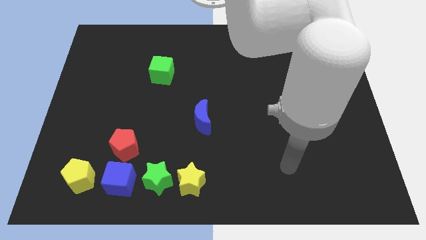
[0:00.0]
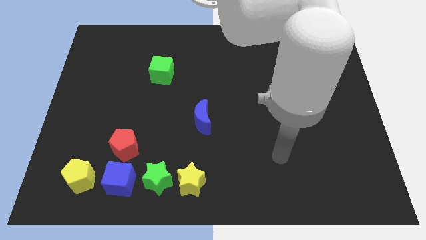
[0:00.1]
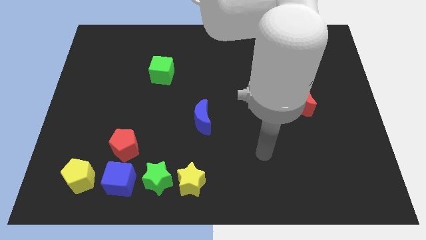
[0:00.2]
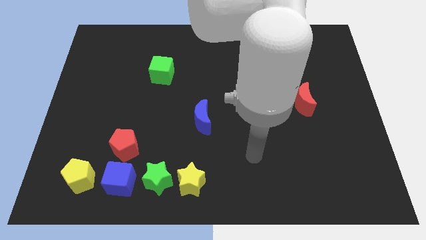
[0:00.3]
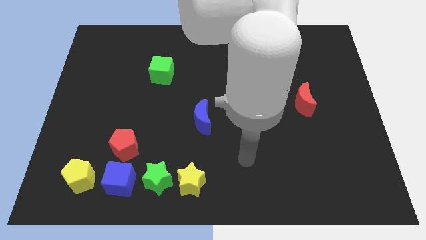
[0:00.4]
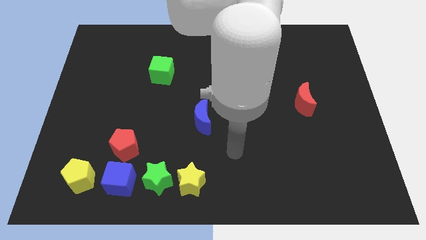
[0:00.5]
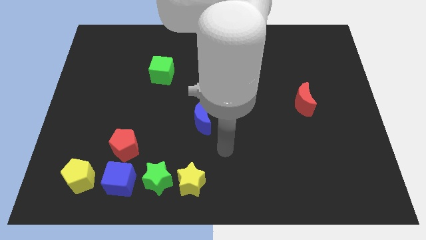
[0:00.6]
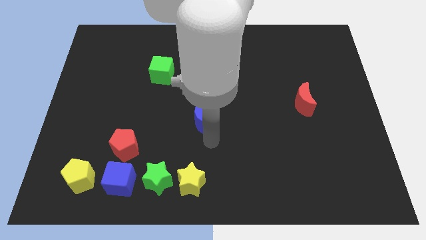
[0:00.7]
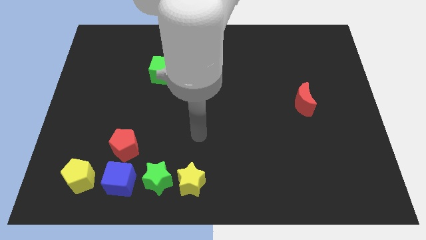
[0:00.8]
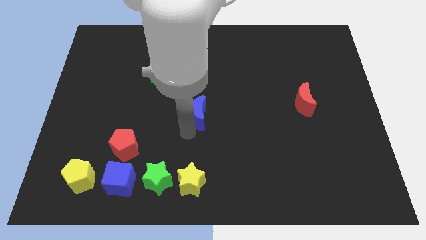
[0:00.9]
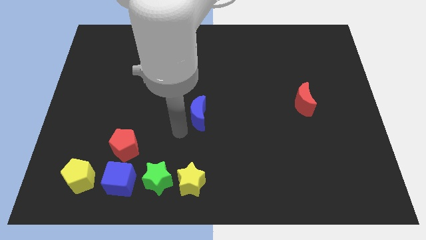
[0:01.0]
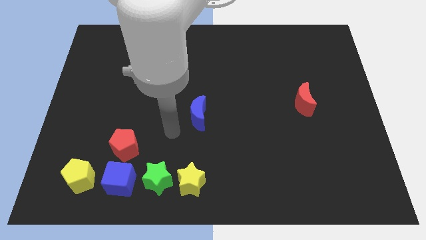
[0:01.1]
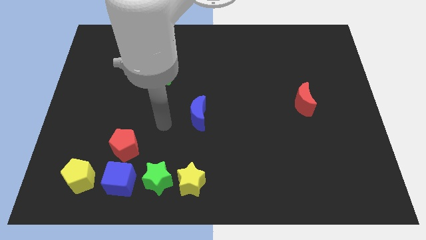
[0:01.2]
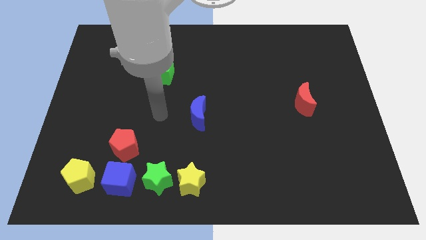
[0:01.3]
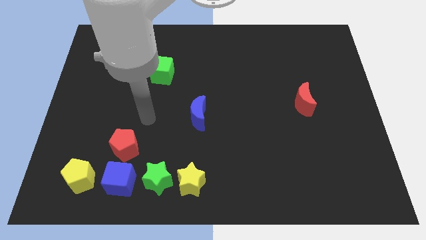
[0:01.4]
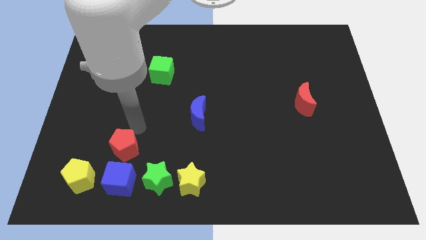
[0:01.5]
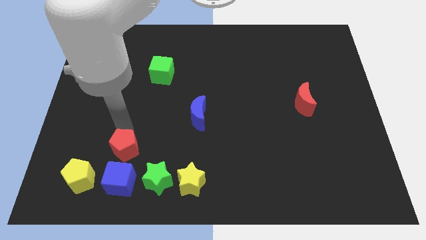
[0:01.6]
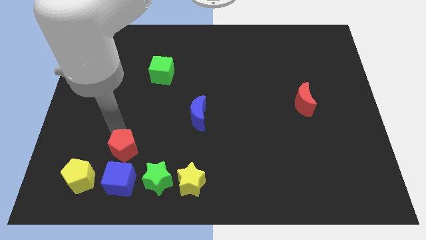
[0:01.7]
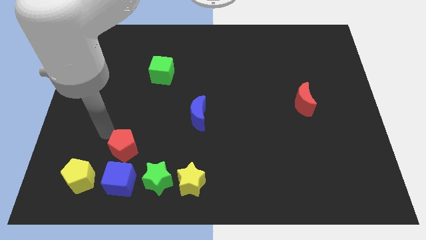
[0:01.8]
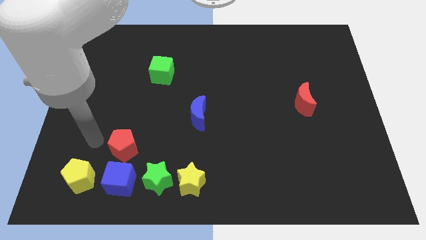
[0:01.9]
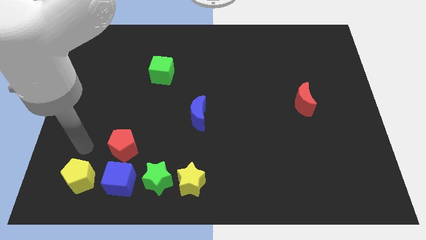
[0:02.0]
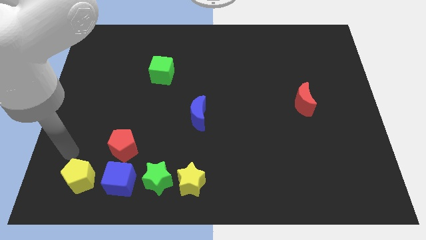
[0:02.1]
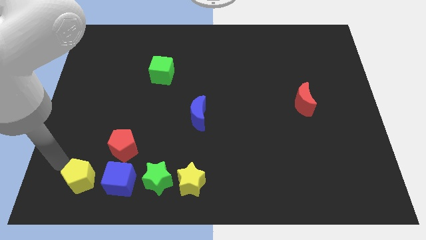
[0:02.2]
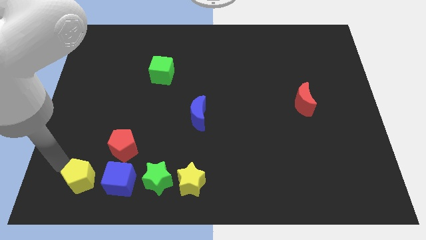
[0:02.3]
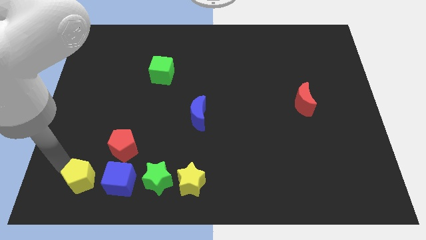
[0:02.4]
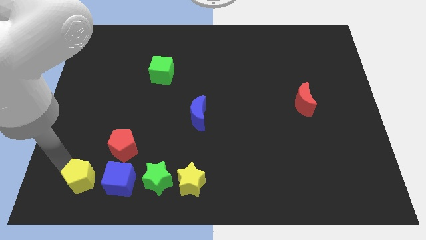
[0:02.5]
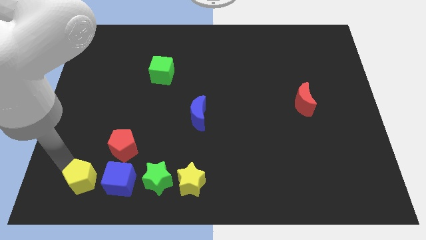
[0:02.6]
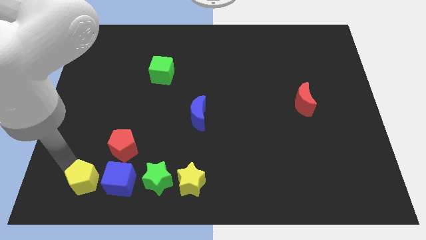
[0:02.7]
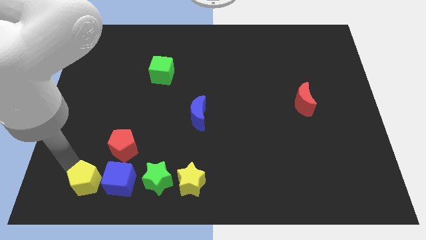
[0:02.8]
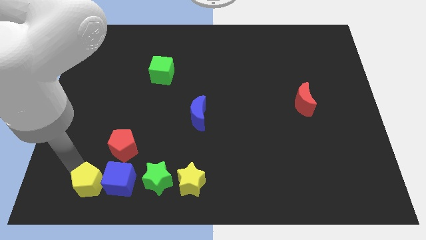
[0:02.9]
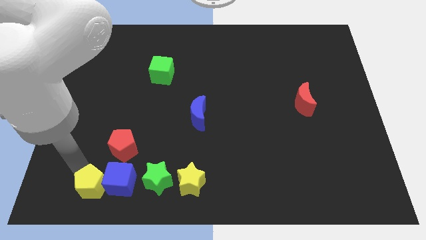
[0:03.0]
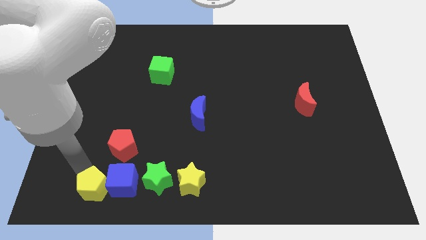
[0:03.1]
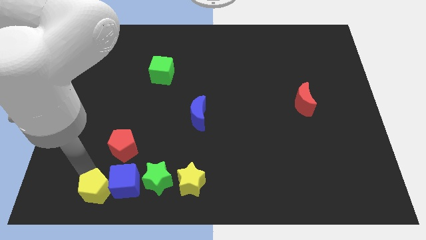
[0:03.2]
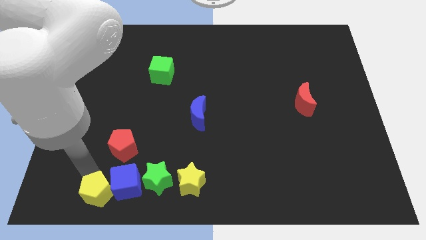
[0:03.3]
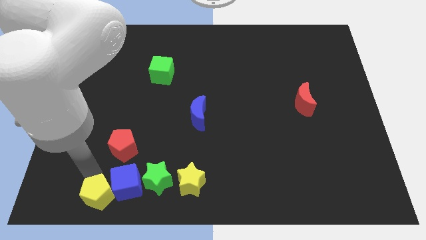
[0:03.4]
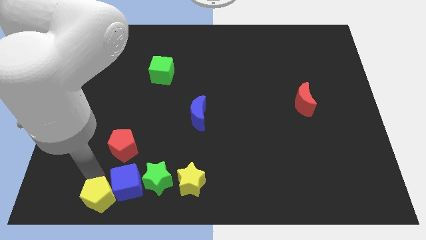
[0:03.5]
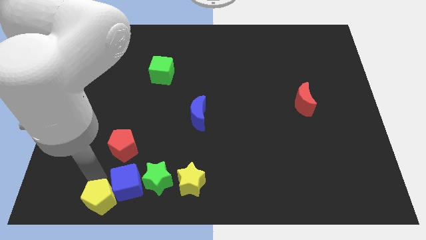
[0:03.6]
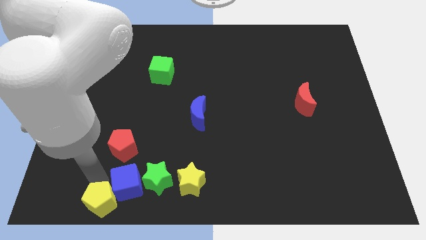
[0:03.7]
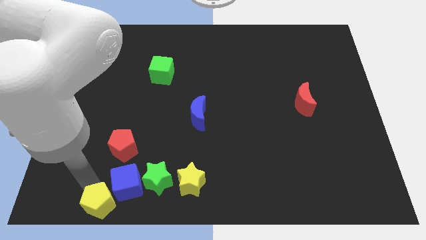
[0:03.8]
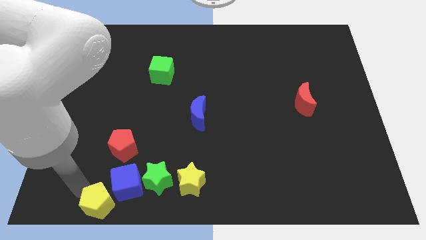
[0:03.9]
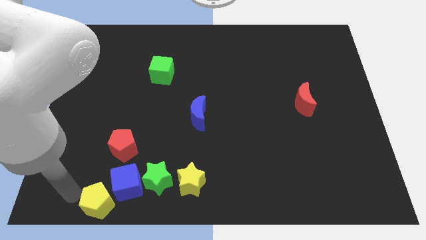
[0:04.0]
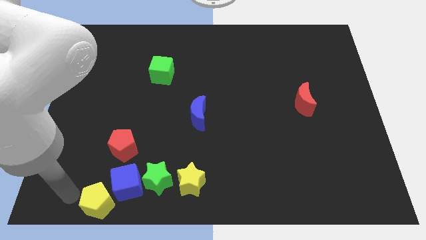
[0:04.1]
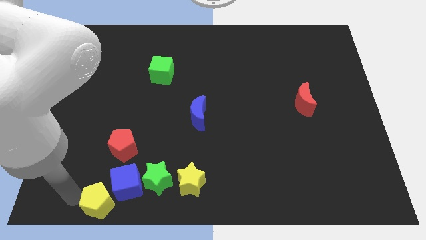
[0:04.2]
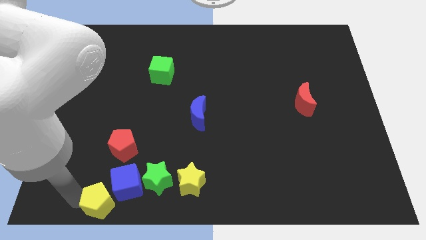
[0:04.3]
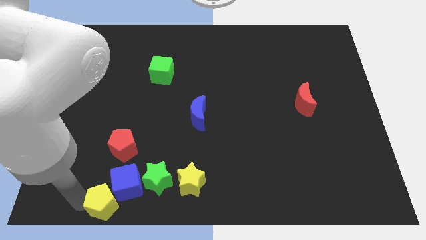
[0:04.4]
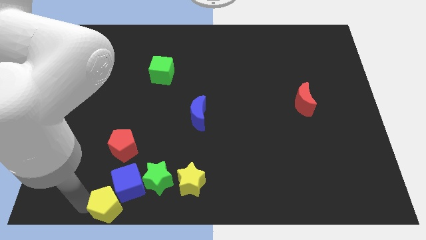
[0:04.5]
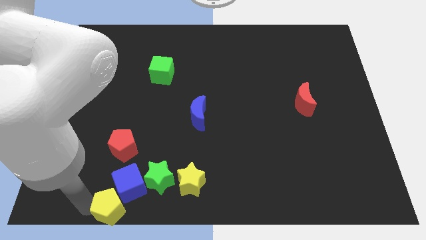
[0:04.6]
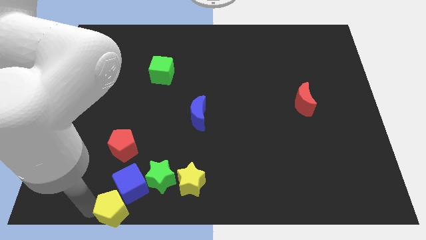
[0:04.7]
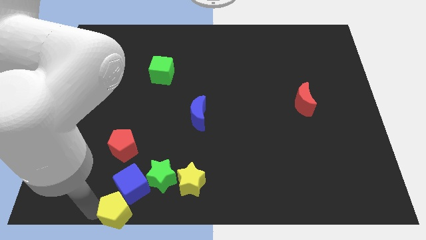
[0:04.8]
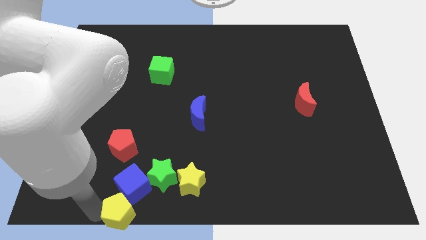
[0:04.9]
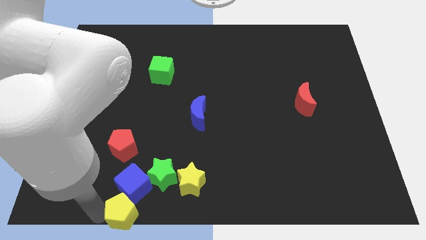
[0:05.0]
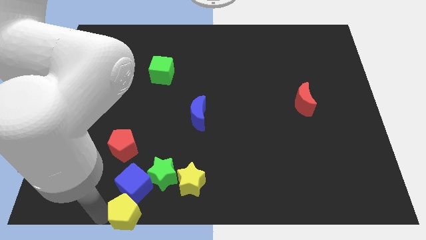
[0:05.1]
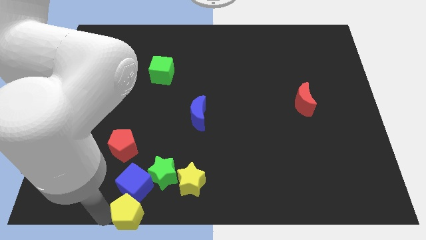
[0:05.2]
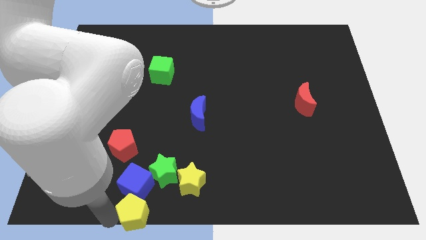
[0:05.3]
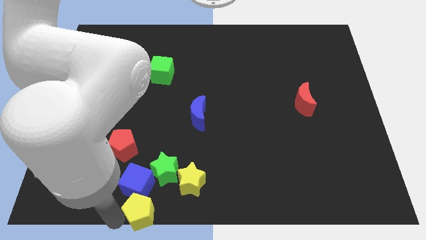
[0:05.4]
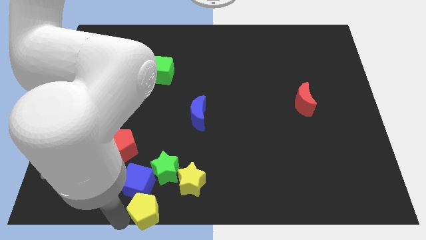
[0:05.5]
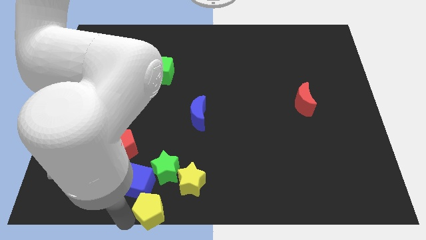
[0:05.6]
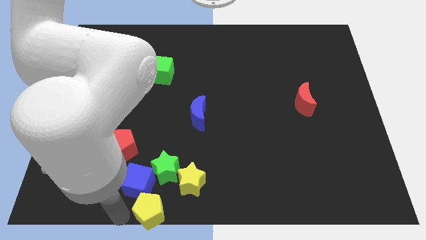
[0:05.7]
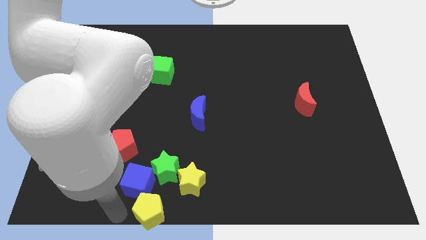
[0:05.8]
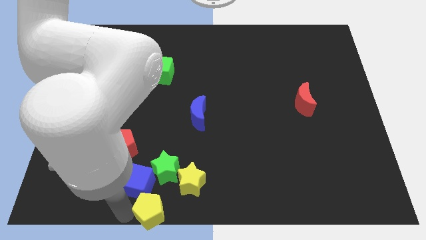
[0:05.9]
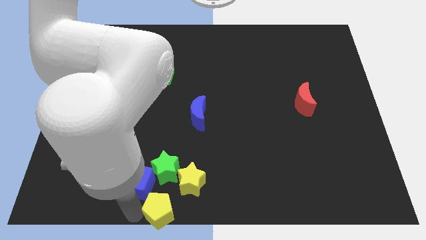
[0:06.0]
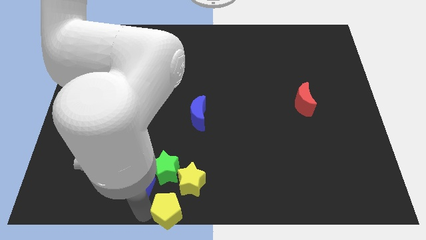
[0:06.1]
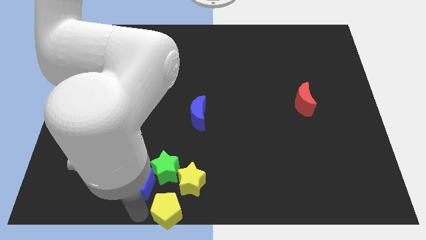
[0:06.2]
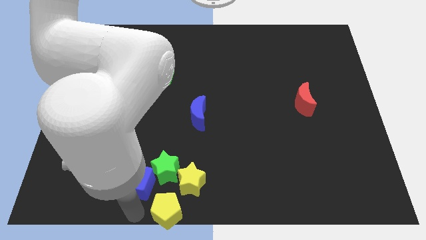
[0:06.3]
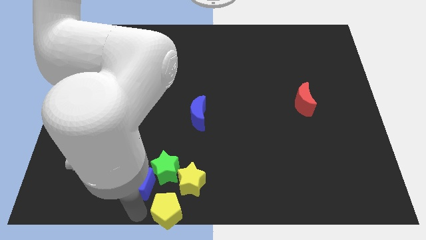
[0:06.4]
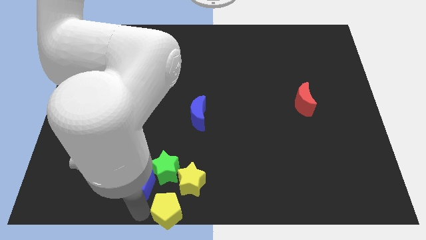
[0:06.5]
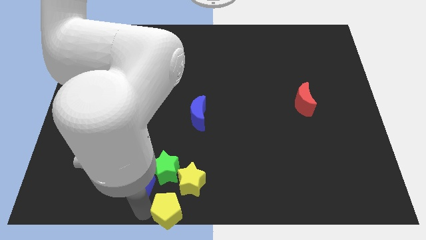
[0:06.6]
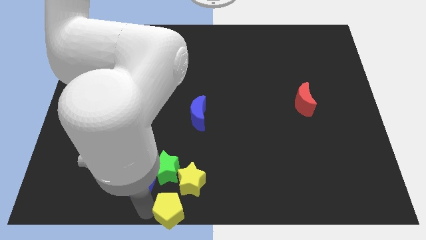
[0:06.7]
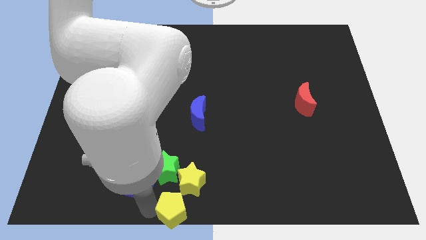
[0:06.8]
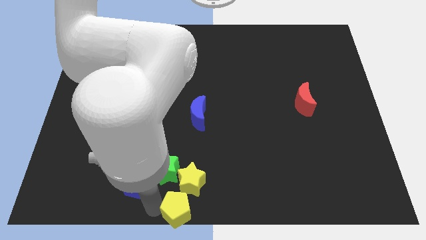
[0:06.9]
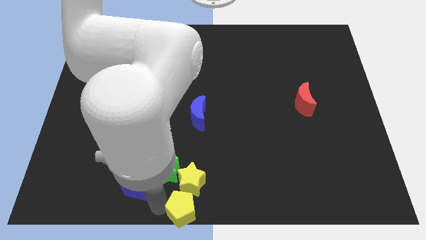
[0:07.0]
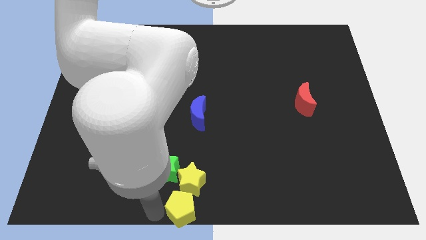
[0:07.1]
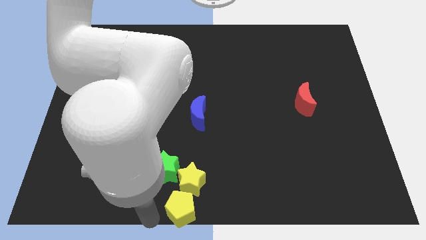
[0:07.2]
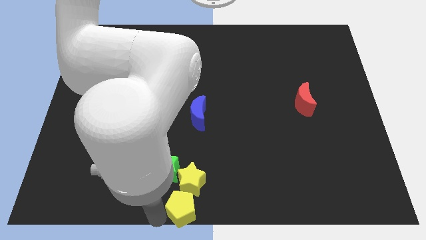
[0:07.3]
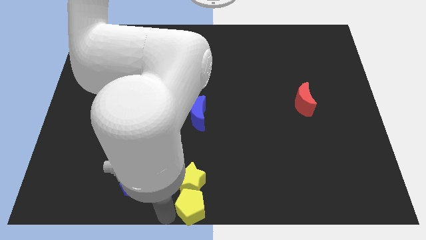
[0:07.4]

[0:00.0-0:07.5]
slide the yellow pentagon right

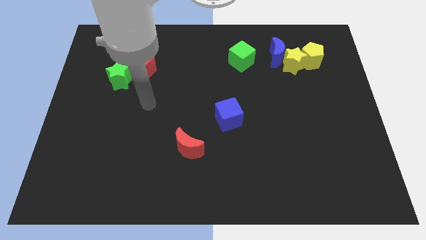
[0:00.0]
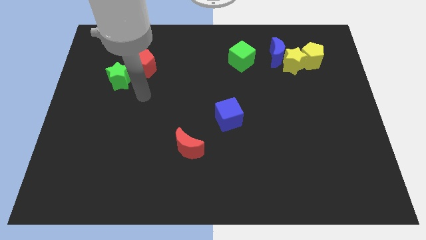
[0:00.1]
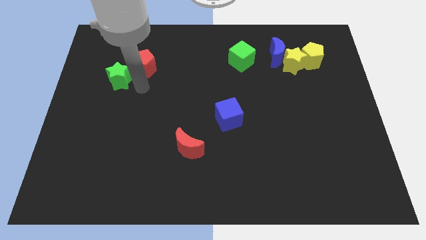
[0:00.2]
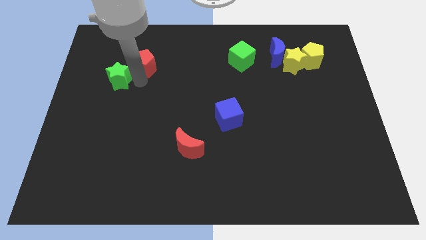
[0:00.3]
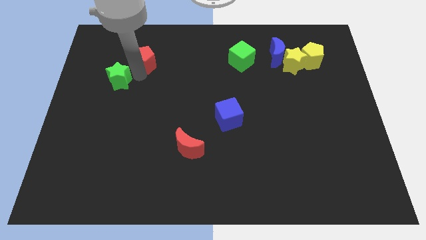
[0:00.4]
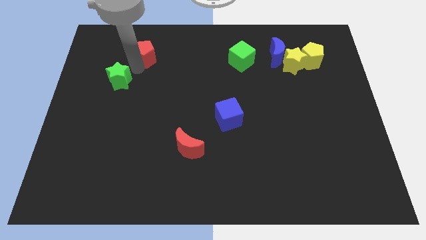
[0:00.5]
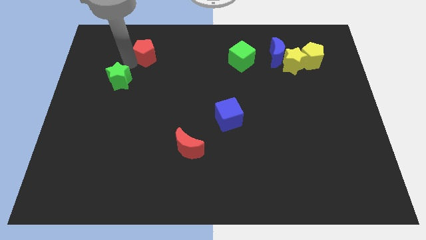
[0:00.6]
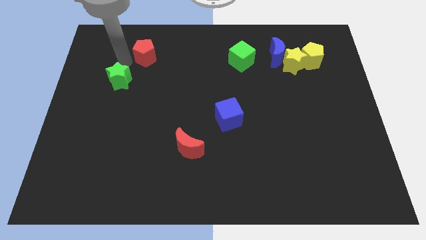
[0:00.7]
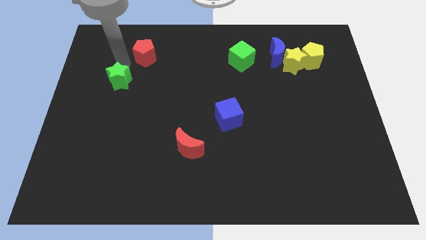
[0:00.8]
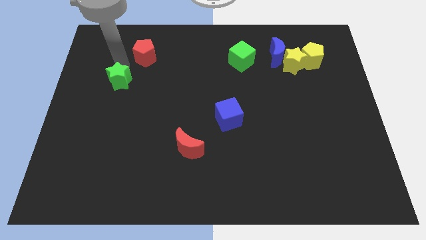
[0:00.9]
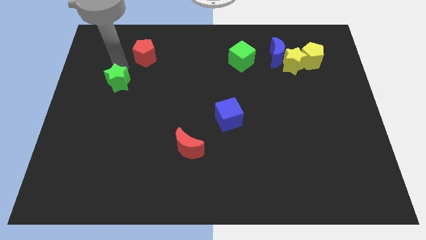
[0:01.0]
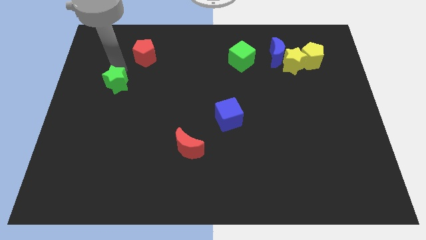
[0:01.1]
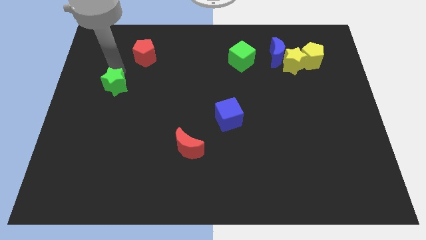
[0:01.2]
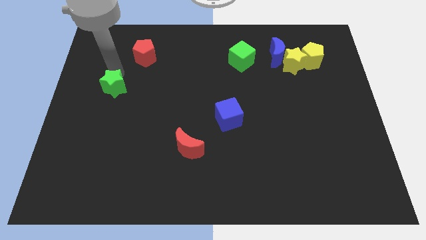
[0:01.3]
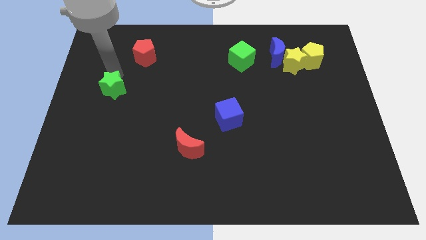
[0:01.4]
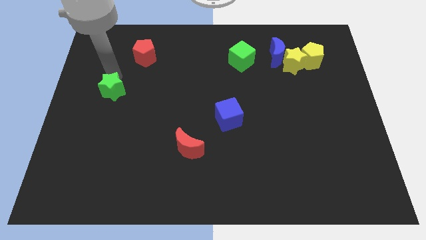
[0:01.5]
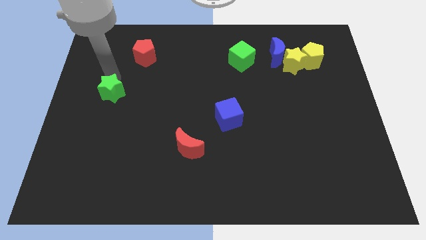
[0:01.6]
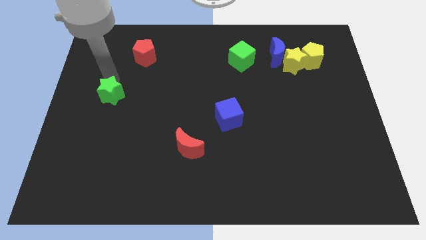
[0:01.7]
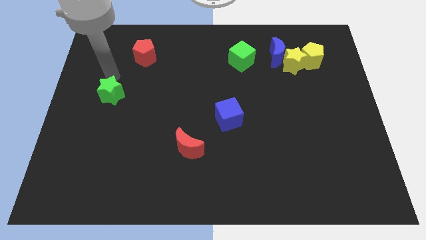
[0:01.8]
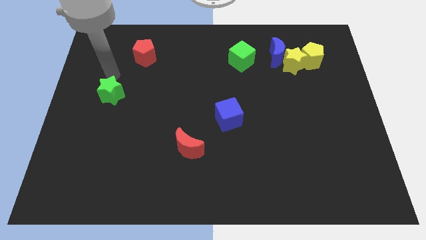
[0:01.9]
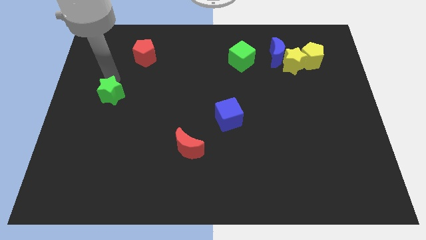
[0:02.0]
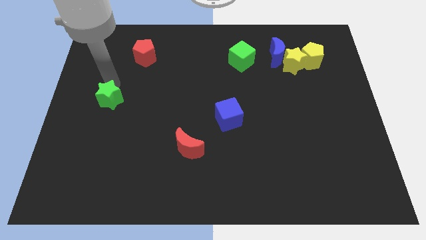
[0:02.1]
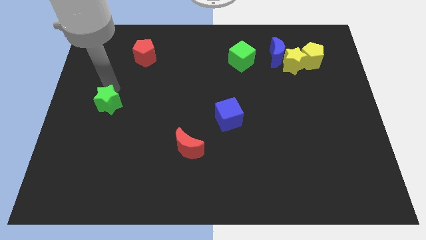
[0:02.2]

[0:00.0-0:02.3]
push the green star down slightly
